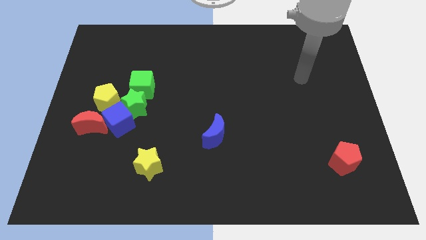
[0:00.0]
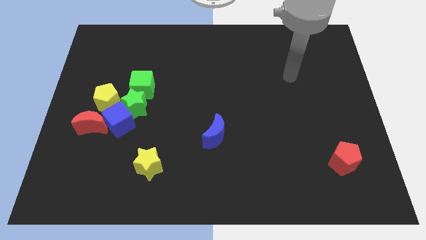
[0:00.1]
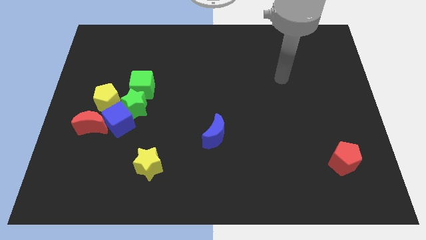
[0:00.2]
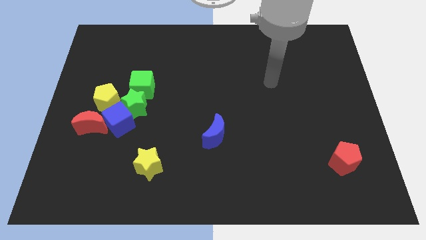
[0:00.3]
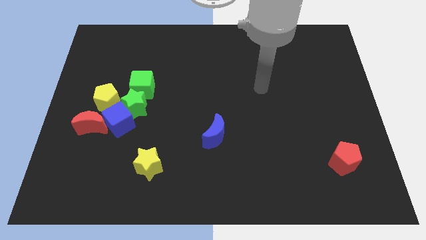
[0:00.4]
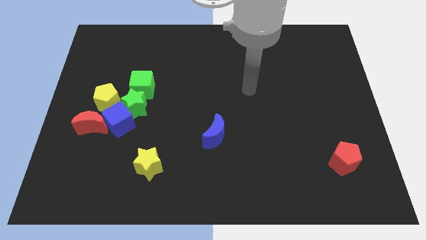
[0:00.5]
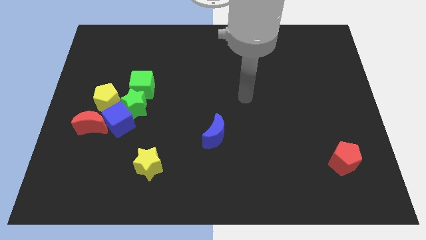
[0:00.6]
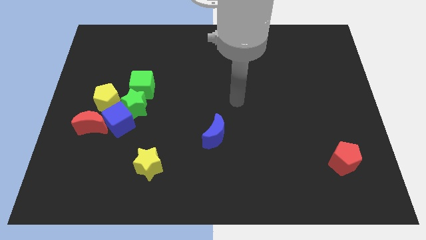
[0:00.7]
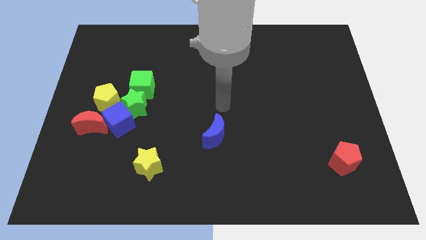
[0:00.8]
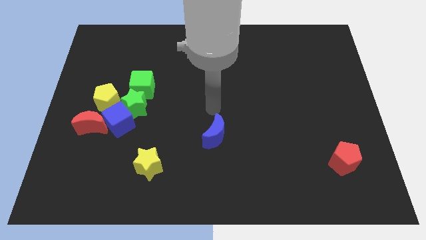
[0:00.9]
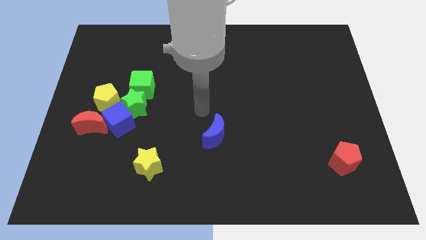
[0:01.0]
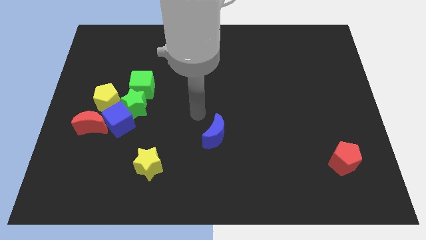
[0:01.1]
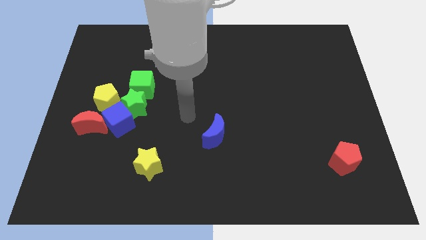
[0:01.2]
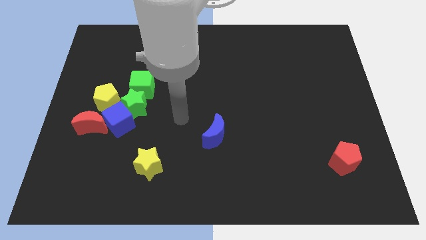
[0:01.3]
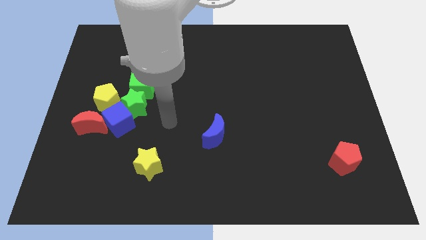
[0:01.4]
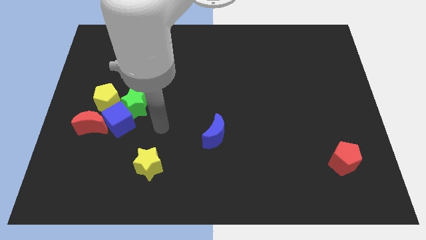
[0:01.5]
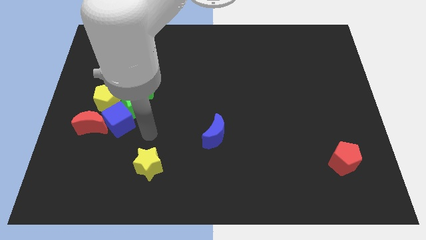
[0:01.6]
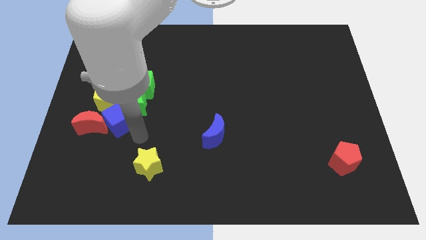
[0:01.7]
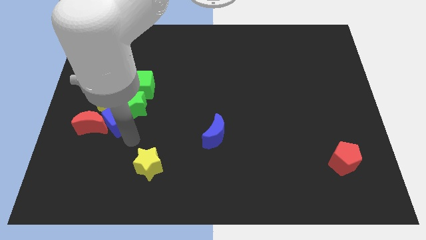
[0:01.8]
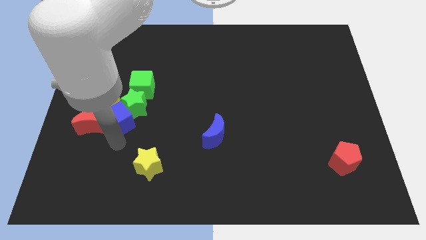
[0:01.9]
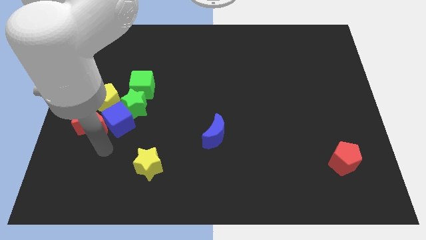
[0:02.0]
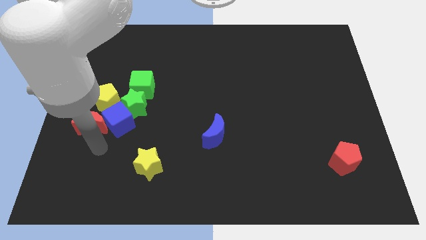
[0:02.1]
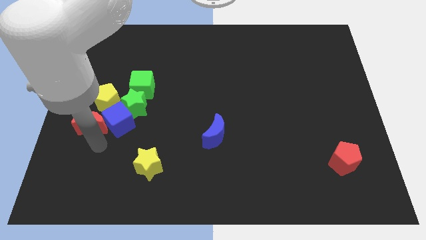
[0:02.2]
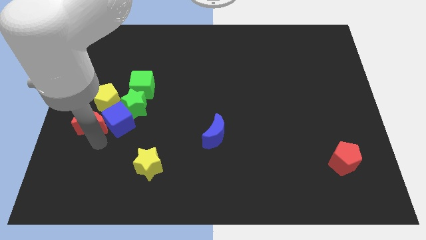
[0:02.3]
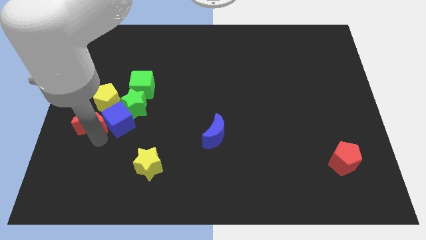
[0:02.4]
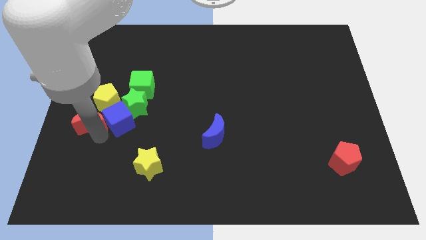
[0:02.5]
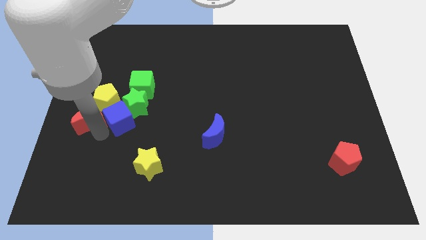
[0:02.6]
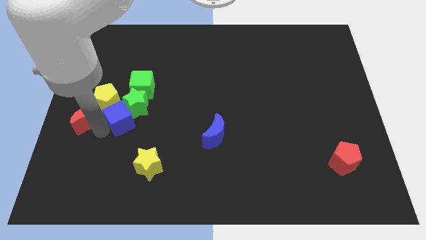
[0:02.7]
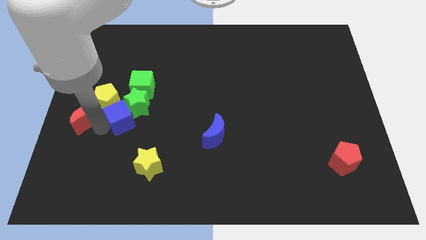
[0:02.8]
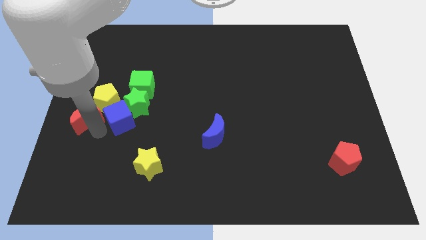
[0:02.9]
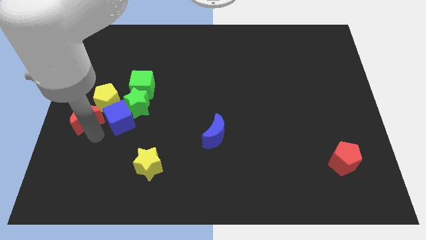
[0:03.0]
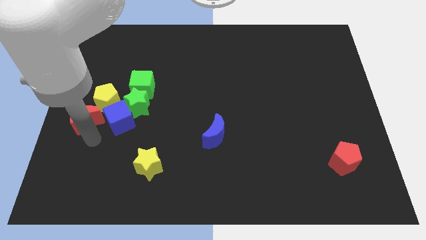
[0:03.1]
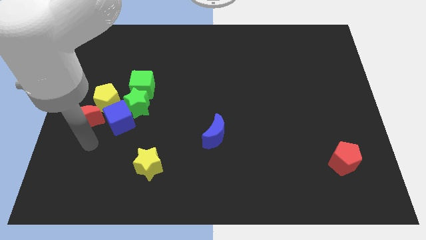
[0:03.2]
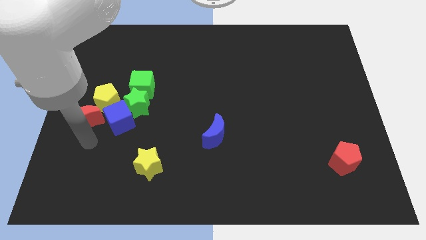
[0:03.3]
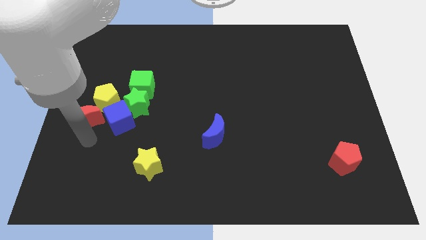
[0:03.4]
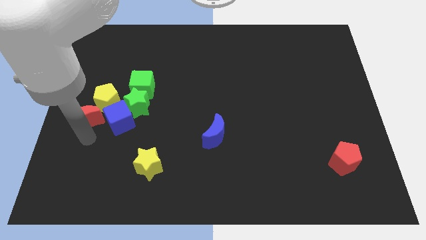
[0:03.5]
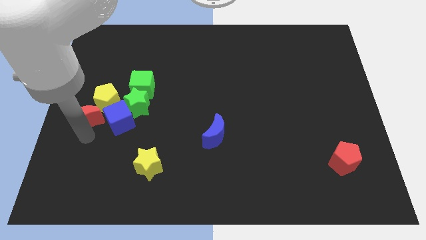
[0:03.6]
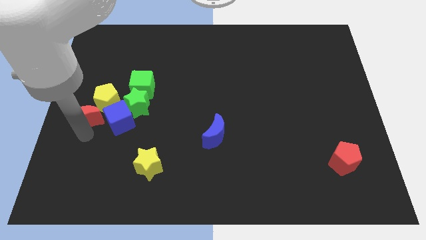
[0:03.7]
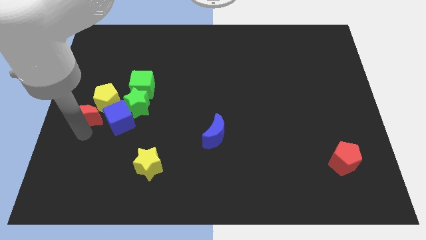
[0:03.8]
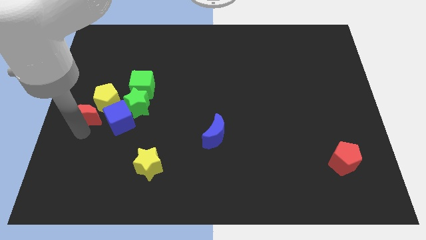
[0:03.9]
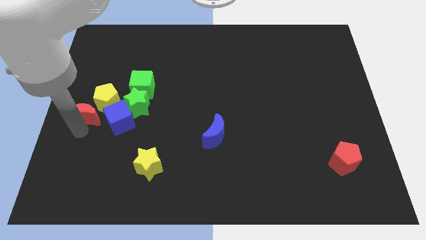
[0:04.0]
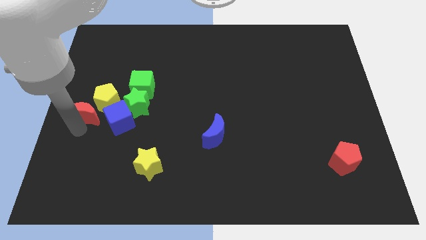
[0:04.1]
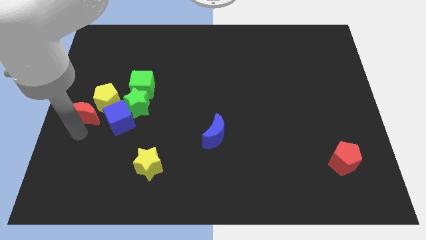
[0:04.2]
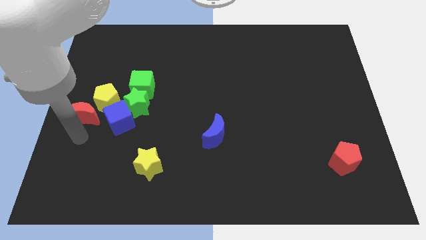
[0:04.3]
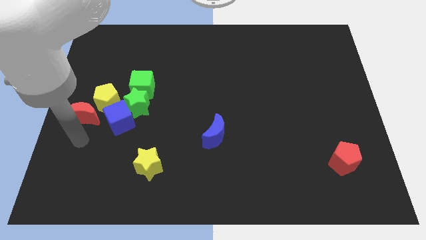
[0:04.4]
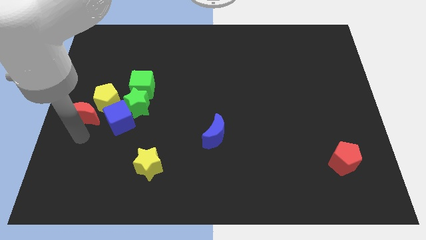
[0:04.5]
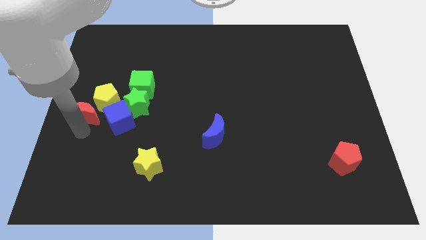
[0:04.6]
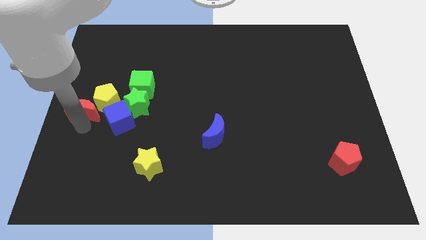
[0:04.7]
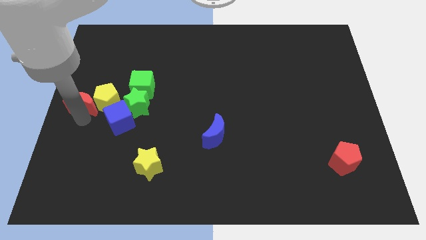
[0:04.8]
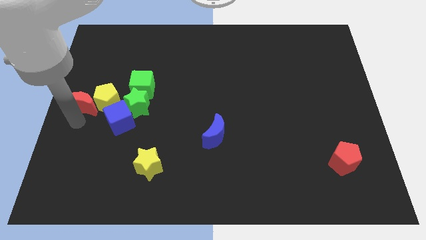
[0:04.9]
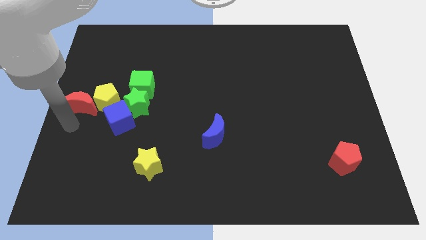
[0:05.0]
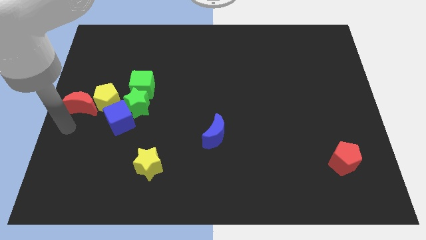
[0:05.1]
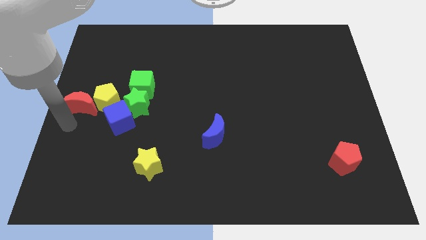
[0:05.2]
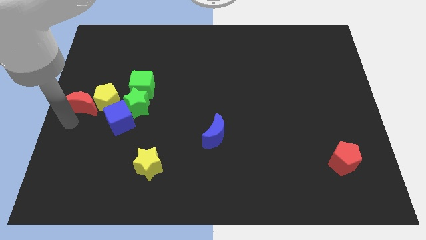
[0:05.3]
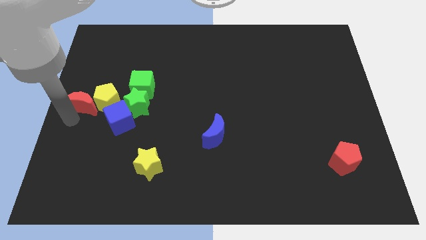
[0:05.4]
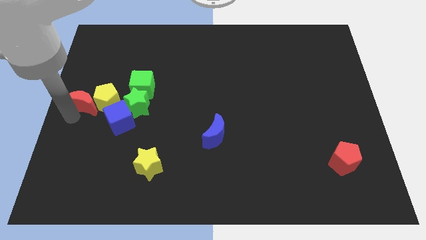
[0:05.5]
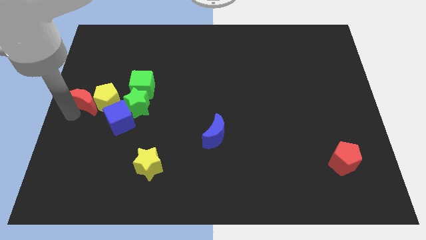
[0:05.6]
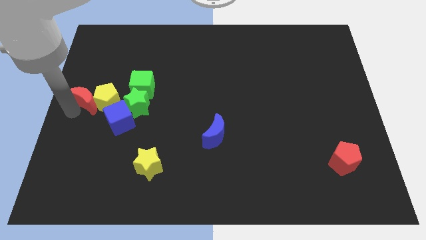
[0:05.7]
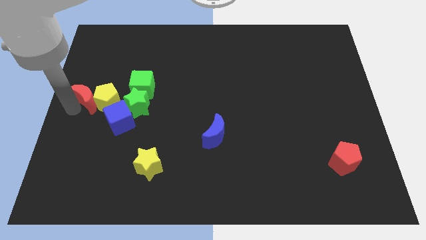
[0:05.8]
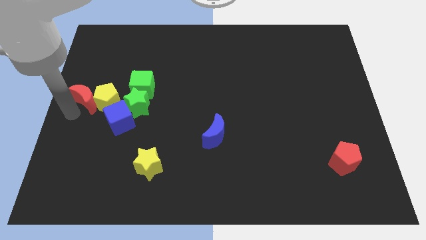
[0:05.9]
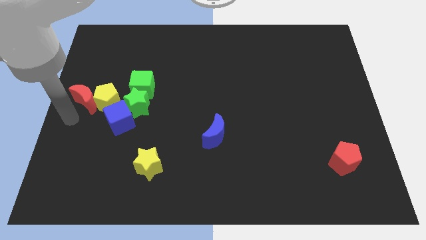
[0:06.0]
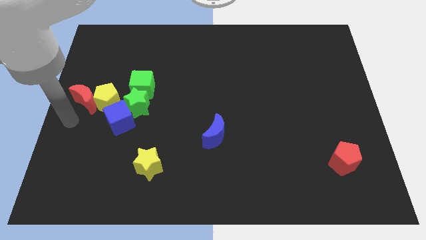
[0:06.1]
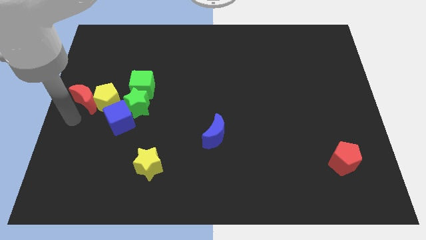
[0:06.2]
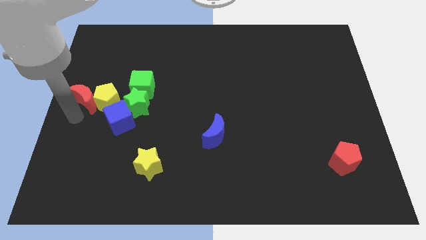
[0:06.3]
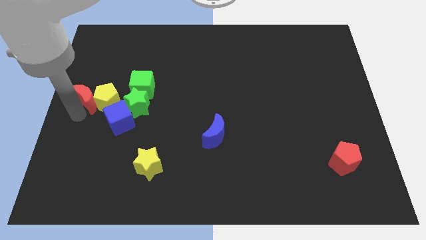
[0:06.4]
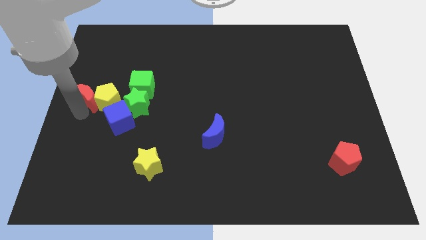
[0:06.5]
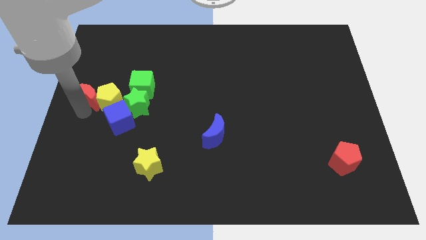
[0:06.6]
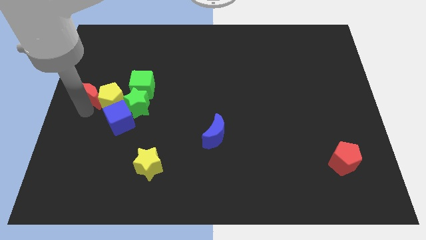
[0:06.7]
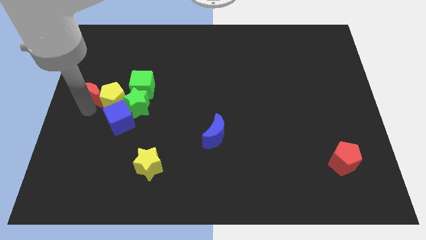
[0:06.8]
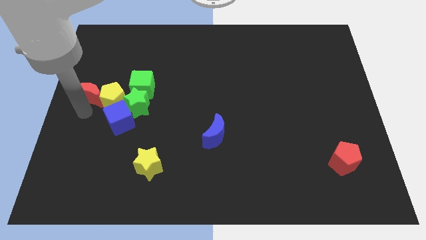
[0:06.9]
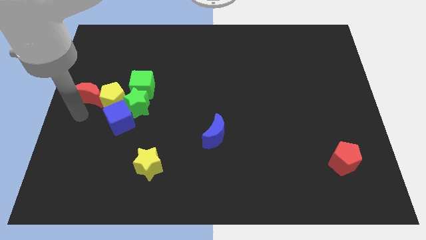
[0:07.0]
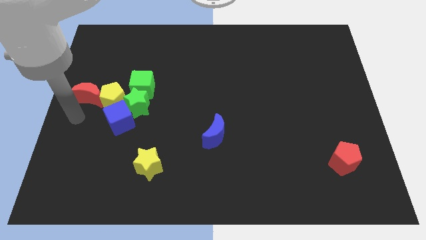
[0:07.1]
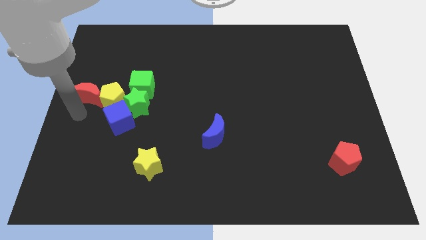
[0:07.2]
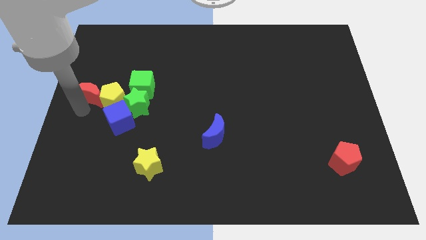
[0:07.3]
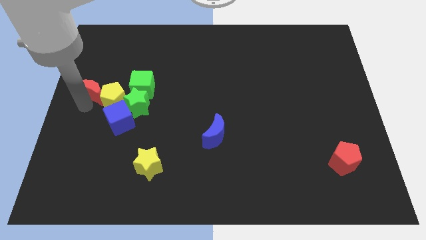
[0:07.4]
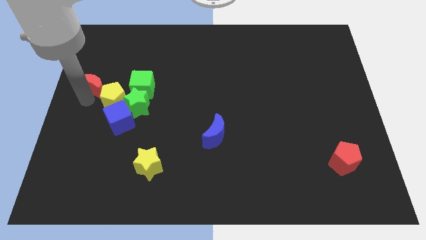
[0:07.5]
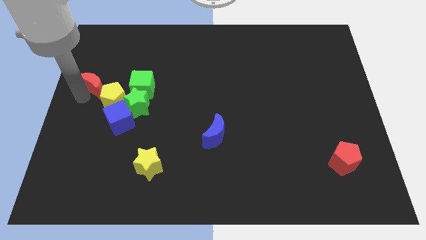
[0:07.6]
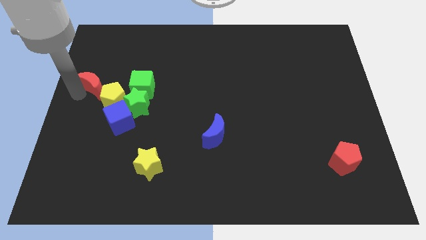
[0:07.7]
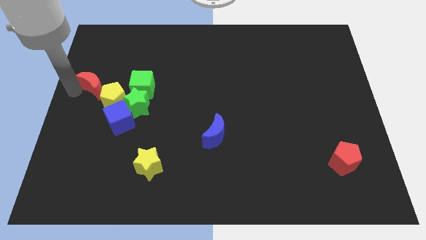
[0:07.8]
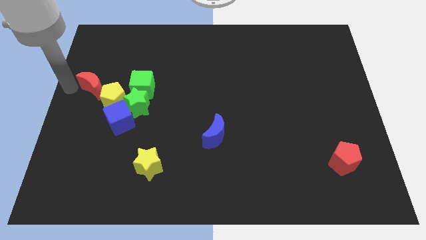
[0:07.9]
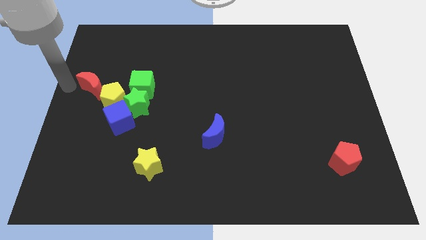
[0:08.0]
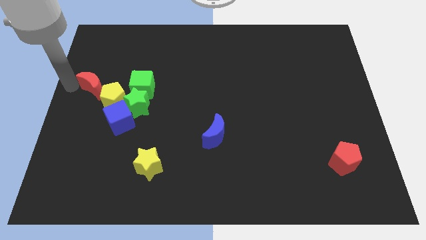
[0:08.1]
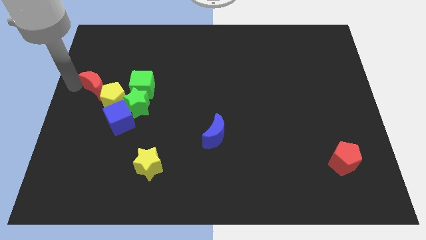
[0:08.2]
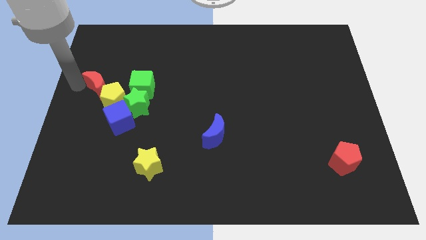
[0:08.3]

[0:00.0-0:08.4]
put the red moon to the top left of the green star
